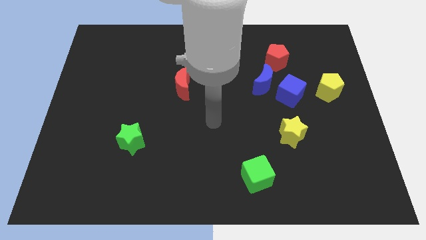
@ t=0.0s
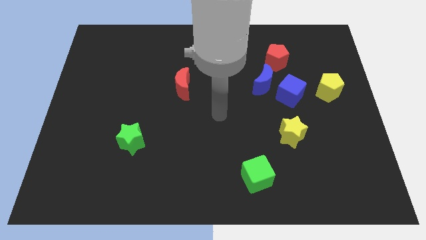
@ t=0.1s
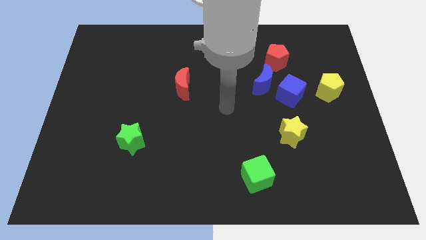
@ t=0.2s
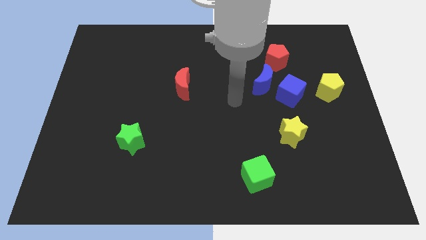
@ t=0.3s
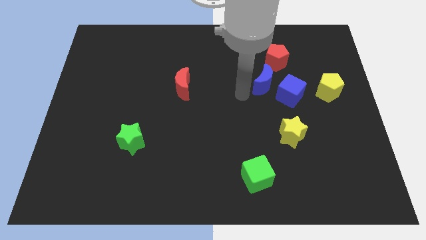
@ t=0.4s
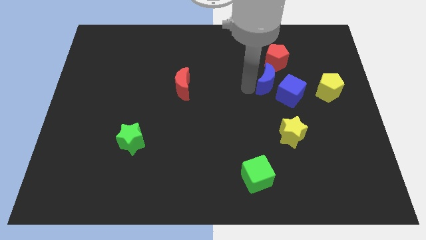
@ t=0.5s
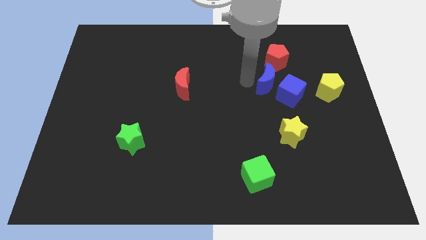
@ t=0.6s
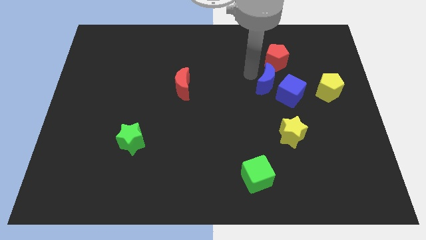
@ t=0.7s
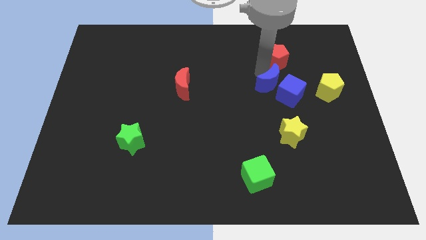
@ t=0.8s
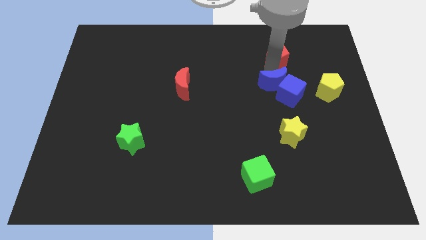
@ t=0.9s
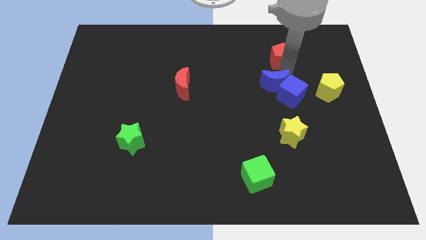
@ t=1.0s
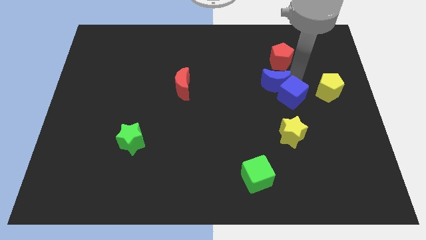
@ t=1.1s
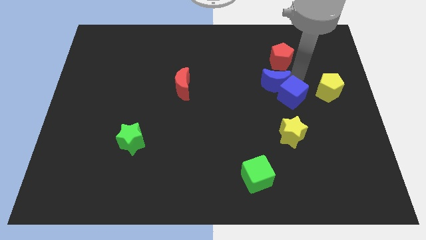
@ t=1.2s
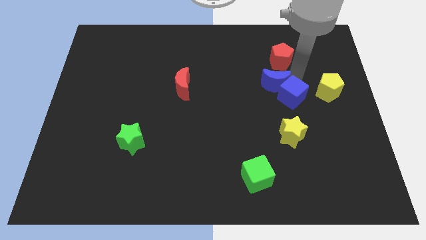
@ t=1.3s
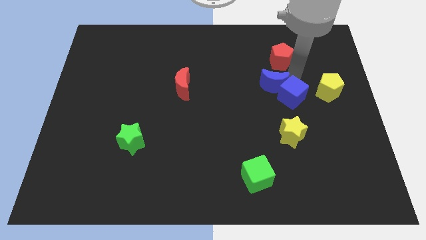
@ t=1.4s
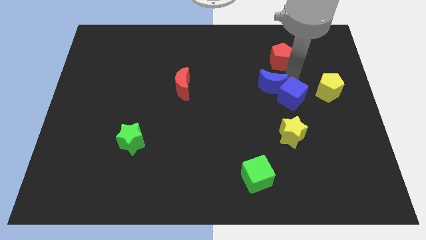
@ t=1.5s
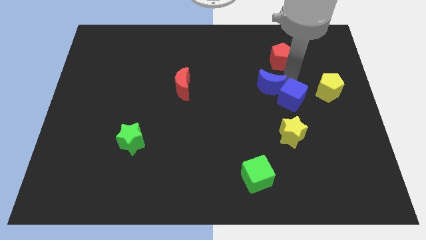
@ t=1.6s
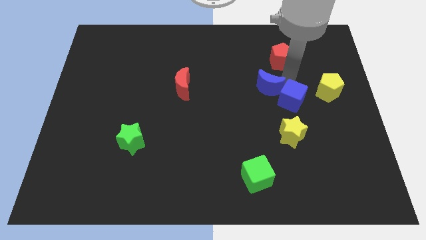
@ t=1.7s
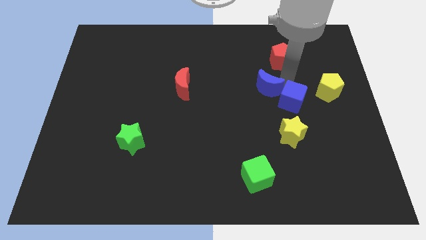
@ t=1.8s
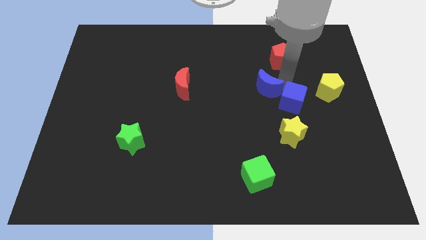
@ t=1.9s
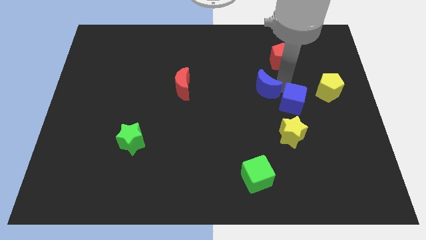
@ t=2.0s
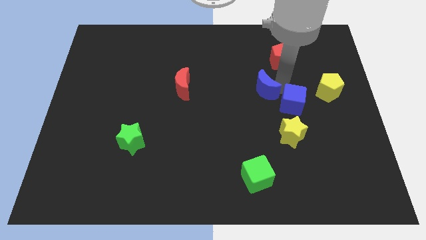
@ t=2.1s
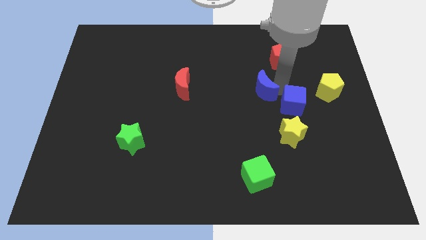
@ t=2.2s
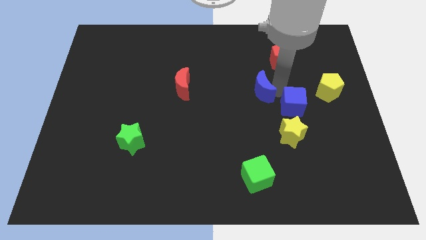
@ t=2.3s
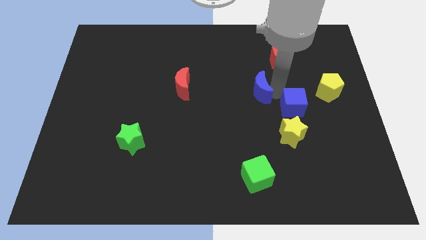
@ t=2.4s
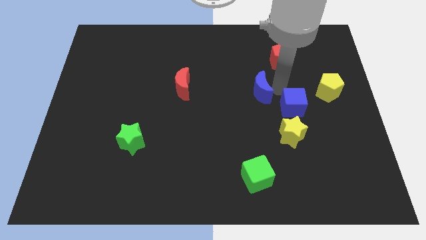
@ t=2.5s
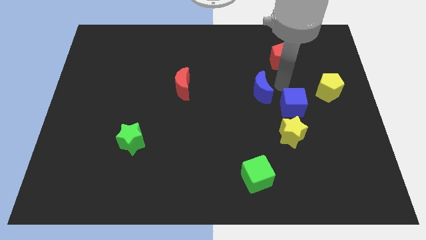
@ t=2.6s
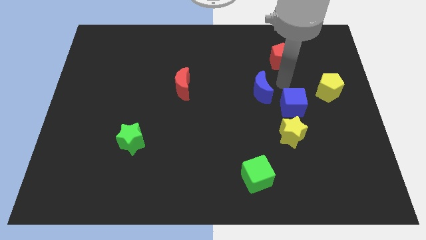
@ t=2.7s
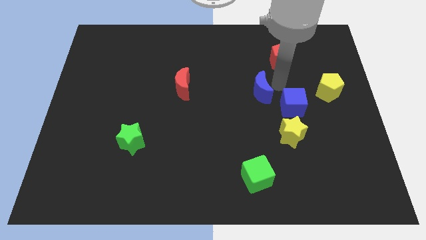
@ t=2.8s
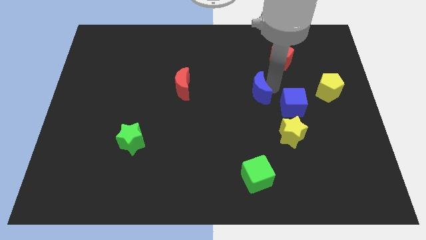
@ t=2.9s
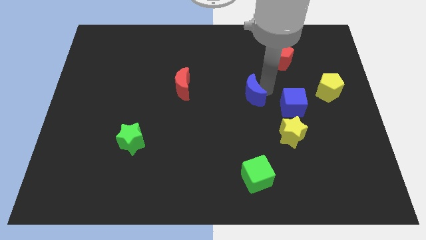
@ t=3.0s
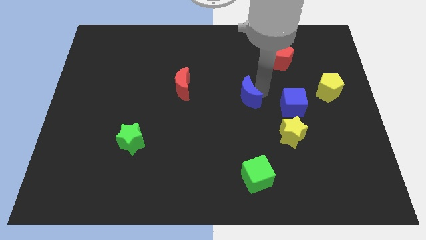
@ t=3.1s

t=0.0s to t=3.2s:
move the blue moon away from the blue cube and red pentagon

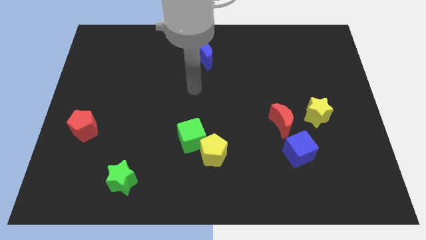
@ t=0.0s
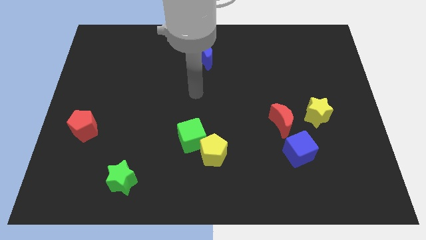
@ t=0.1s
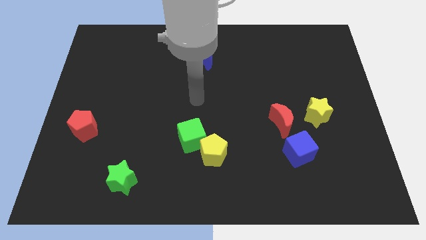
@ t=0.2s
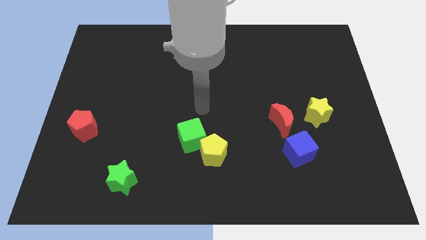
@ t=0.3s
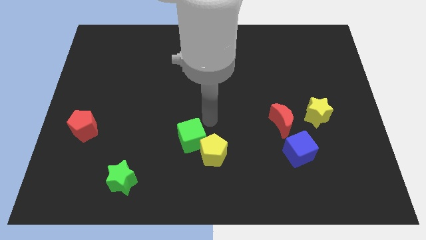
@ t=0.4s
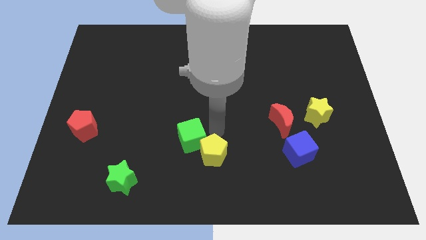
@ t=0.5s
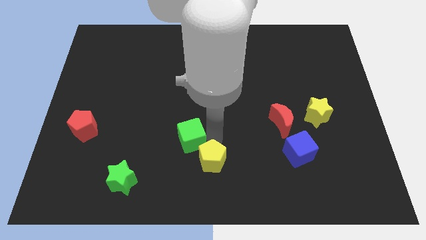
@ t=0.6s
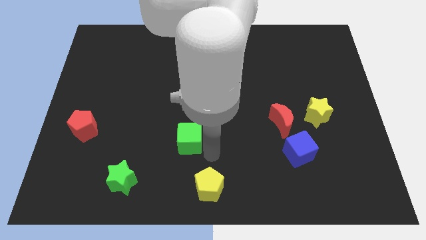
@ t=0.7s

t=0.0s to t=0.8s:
pull the green cube apart from the yellow pentagon

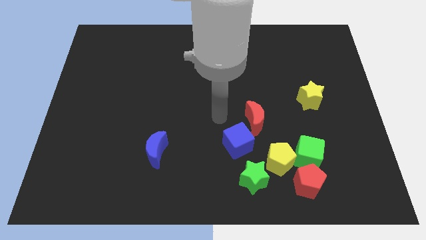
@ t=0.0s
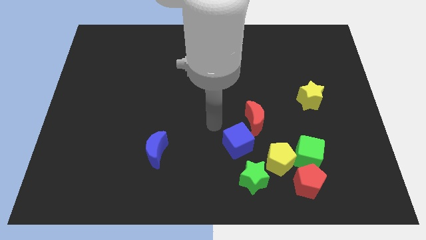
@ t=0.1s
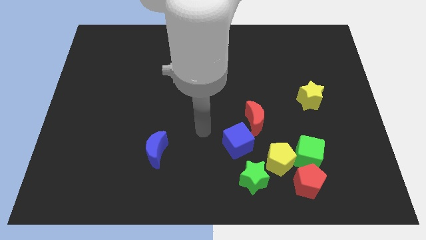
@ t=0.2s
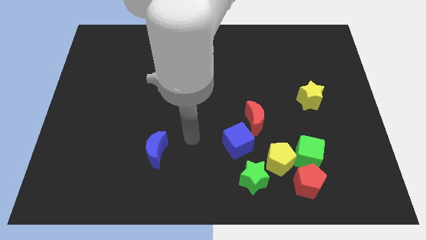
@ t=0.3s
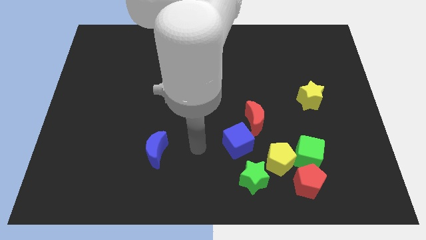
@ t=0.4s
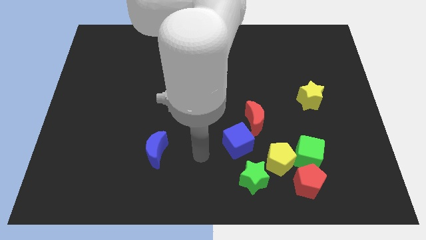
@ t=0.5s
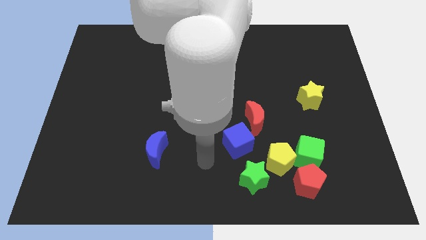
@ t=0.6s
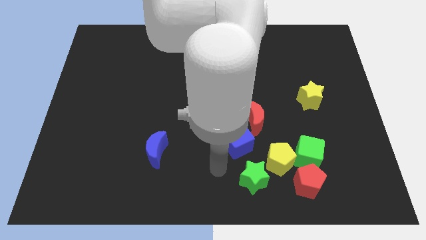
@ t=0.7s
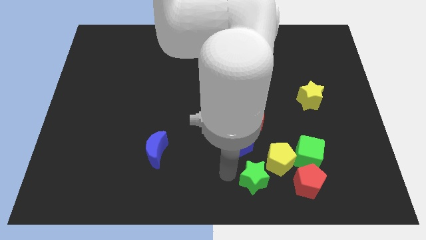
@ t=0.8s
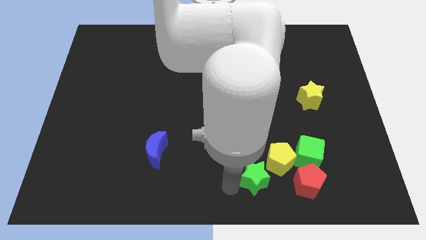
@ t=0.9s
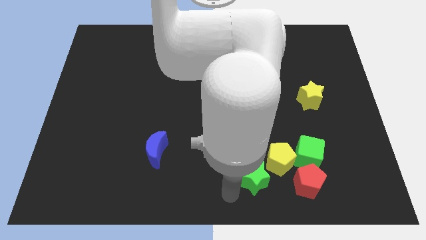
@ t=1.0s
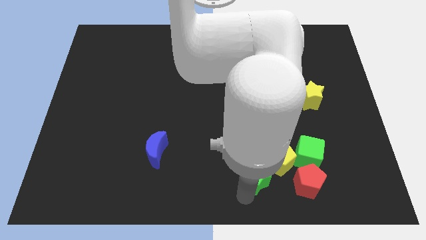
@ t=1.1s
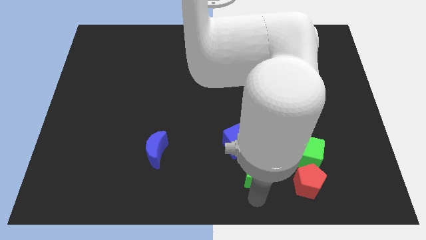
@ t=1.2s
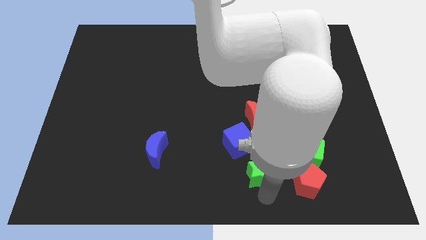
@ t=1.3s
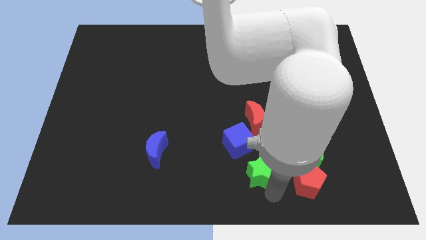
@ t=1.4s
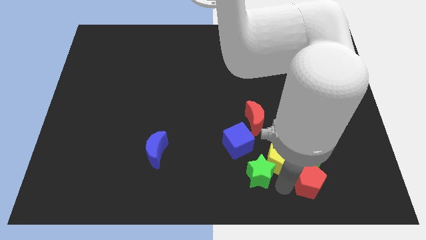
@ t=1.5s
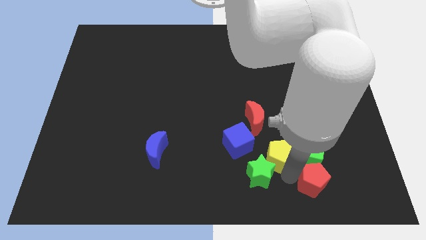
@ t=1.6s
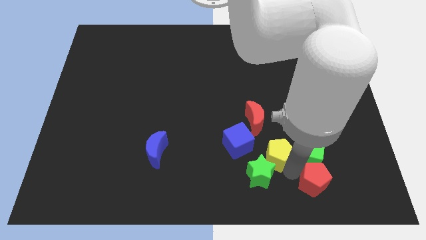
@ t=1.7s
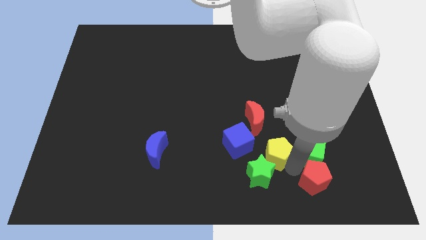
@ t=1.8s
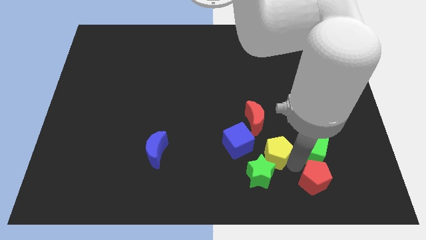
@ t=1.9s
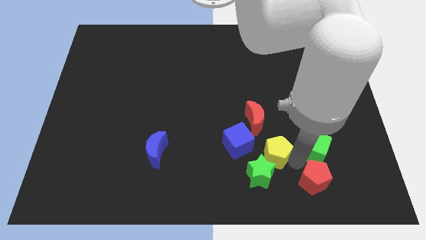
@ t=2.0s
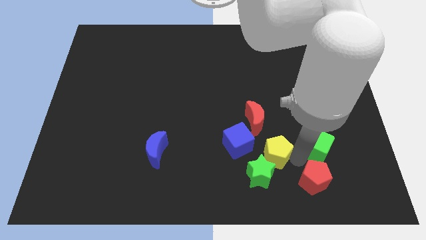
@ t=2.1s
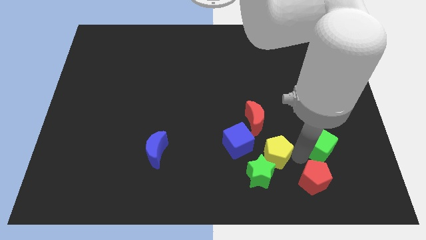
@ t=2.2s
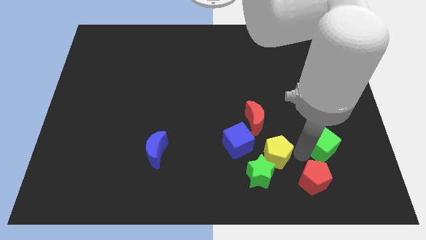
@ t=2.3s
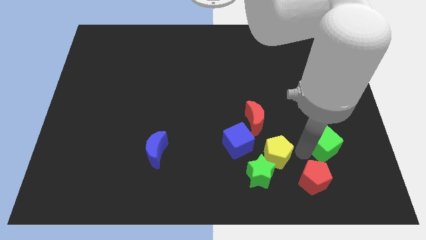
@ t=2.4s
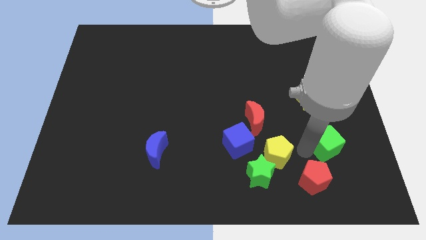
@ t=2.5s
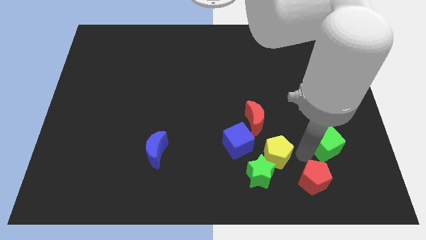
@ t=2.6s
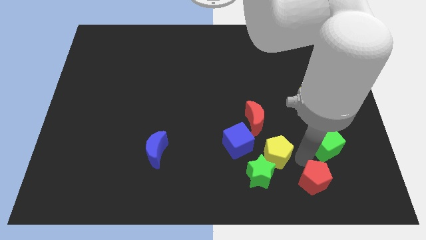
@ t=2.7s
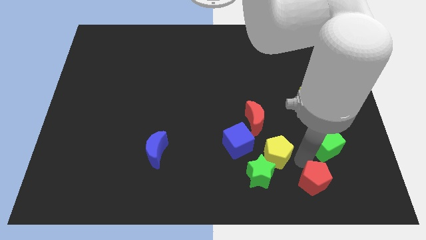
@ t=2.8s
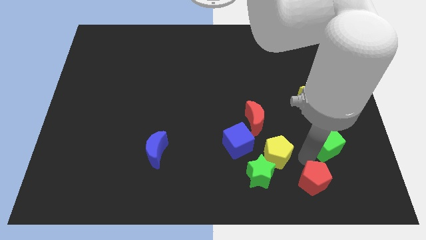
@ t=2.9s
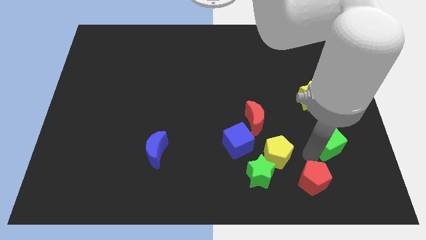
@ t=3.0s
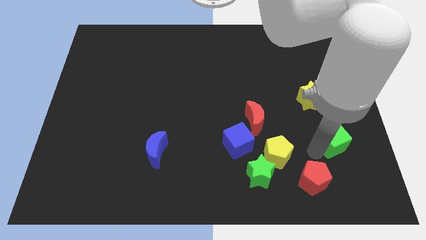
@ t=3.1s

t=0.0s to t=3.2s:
pull the green cube apart from the yellow pentagon and red pentagon

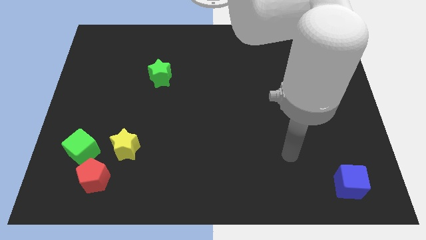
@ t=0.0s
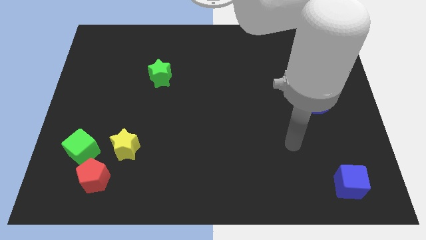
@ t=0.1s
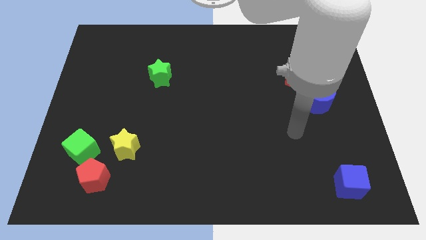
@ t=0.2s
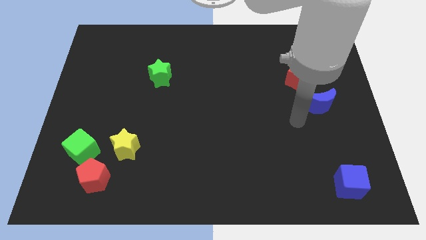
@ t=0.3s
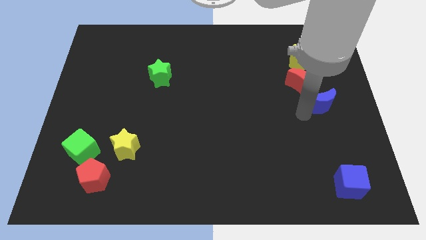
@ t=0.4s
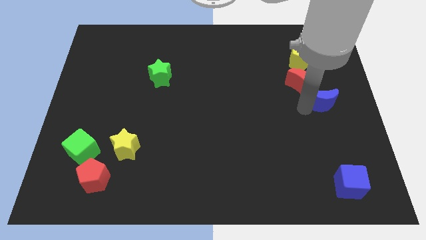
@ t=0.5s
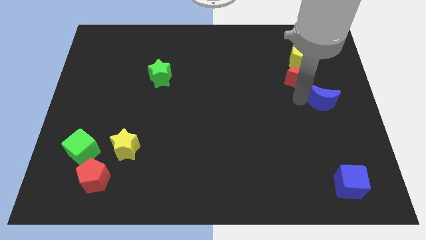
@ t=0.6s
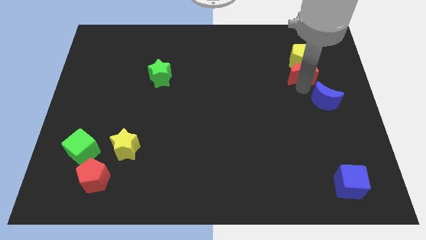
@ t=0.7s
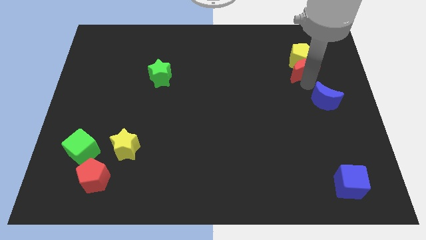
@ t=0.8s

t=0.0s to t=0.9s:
pull the blue moon apart from the red moon

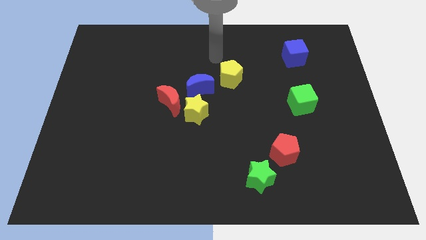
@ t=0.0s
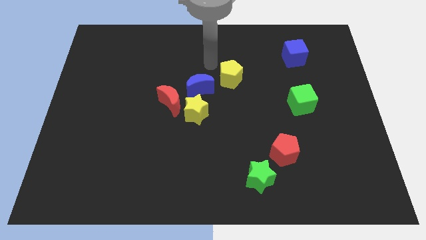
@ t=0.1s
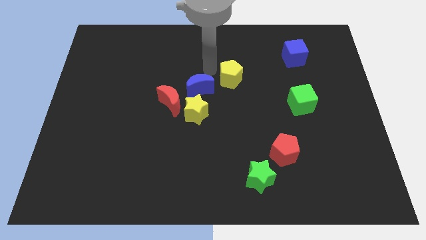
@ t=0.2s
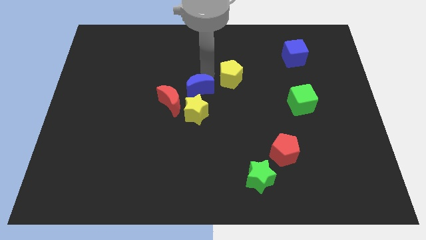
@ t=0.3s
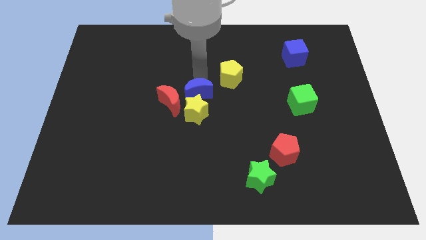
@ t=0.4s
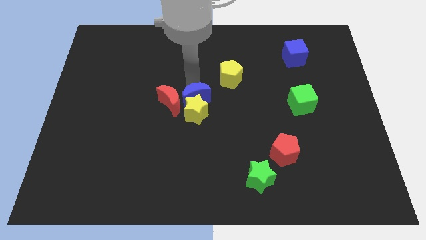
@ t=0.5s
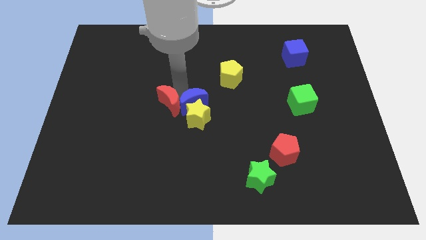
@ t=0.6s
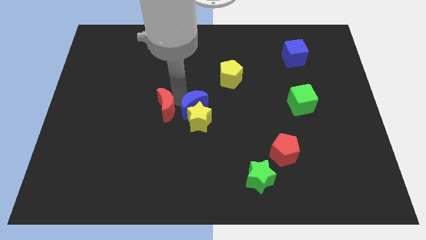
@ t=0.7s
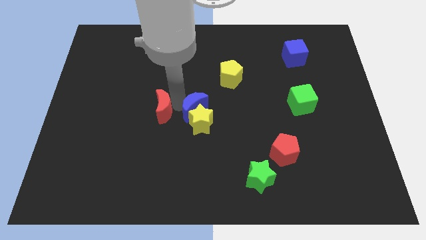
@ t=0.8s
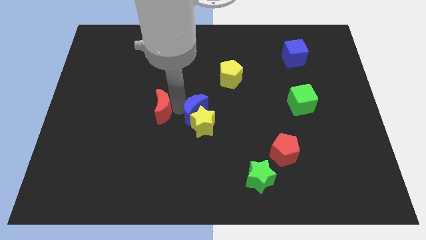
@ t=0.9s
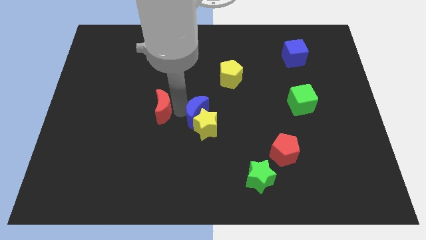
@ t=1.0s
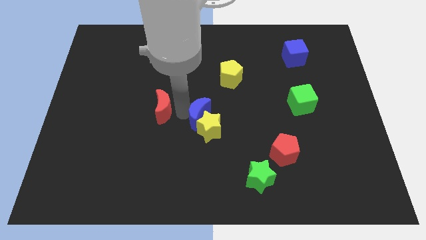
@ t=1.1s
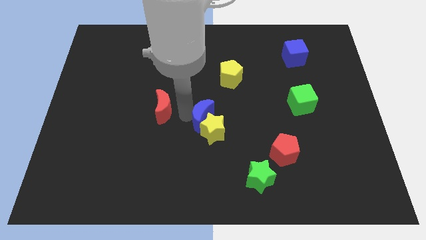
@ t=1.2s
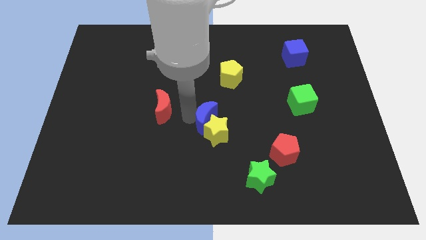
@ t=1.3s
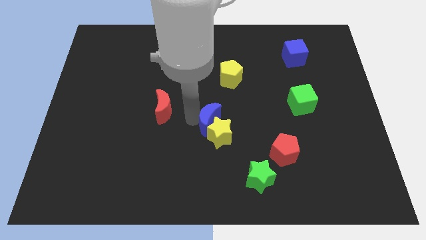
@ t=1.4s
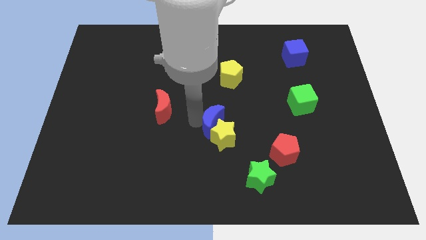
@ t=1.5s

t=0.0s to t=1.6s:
pull the yellow star apart from the red moon and blue moon
